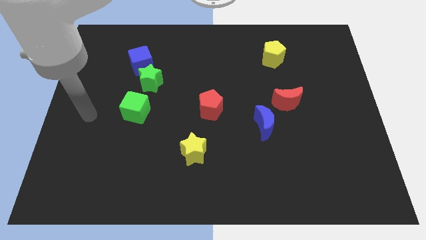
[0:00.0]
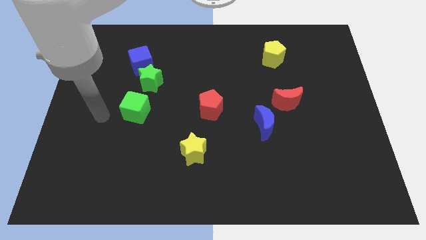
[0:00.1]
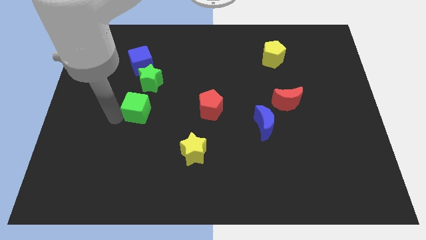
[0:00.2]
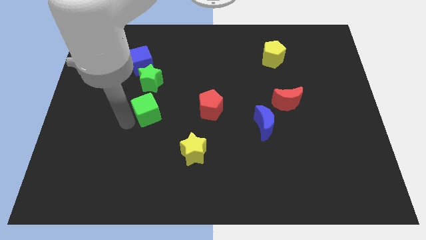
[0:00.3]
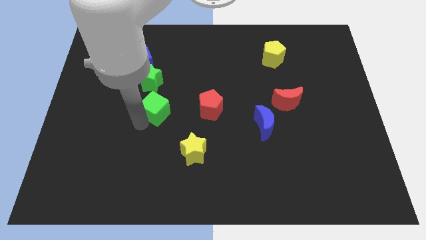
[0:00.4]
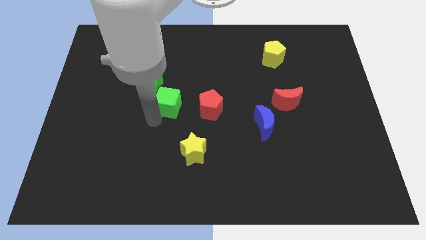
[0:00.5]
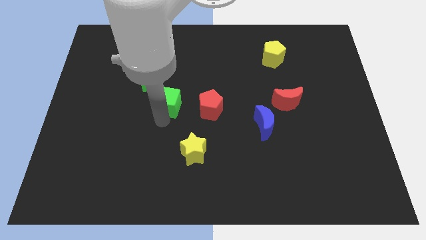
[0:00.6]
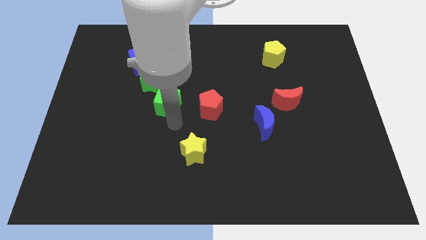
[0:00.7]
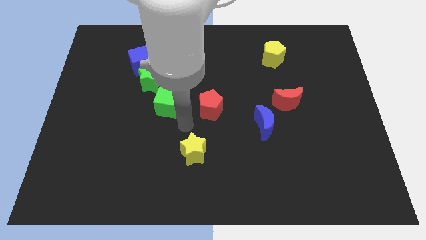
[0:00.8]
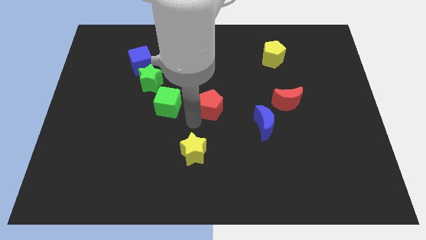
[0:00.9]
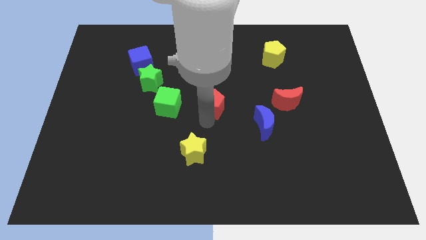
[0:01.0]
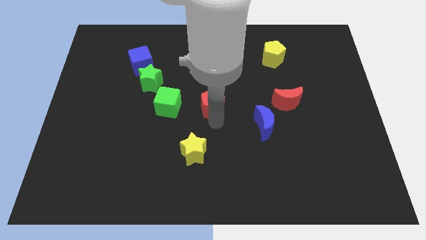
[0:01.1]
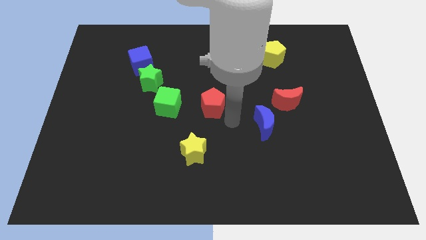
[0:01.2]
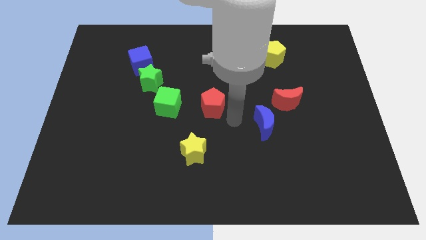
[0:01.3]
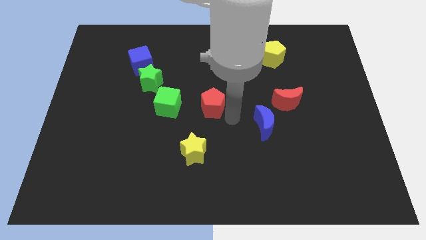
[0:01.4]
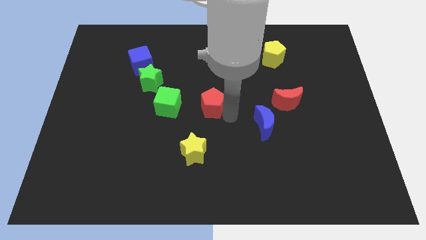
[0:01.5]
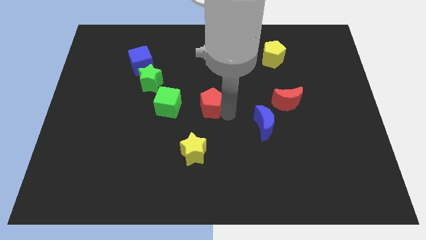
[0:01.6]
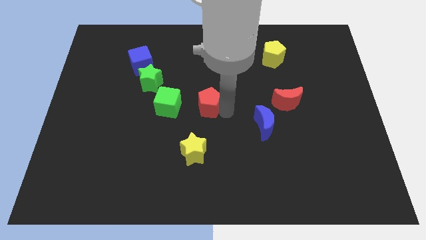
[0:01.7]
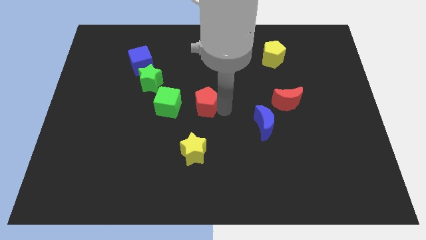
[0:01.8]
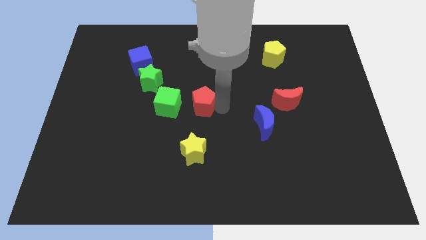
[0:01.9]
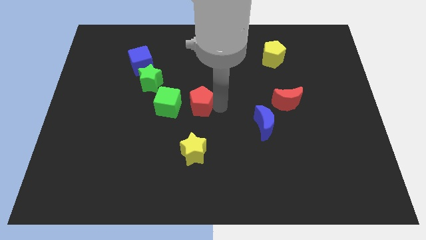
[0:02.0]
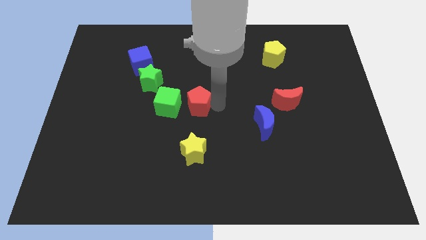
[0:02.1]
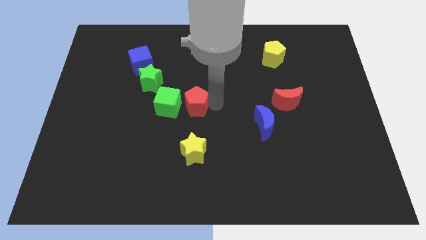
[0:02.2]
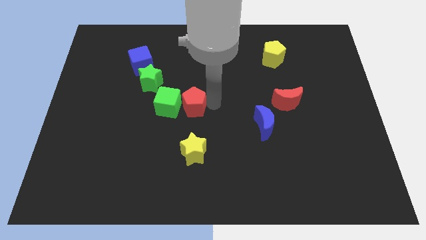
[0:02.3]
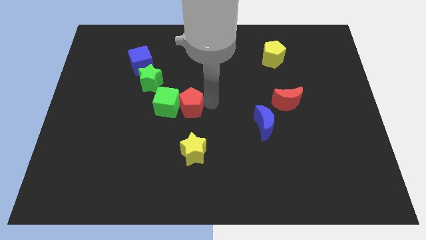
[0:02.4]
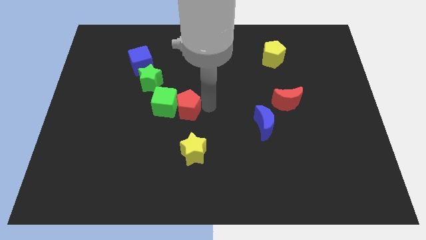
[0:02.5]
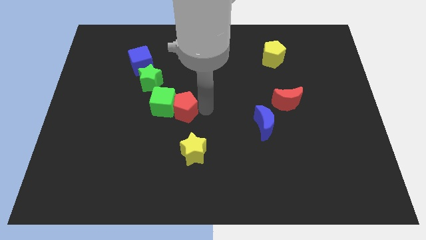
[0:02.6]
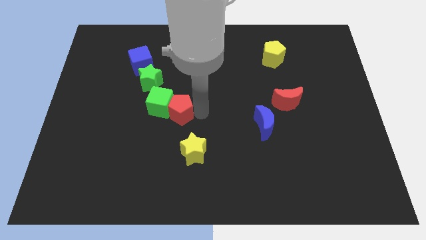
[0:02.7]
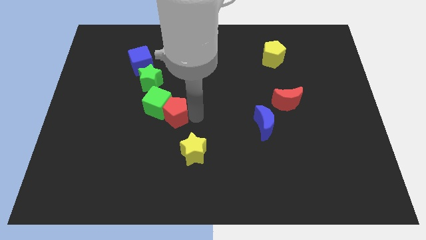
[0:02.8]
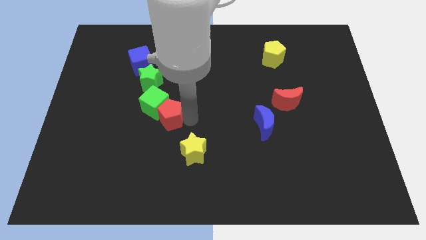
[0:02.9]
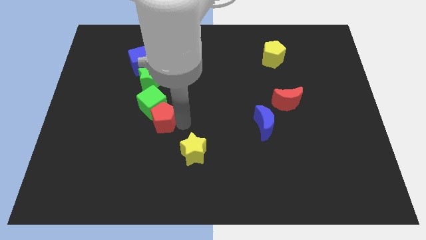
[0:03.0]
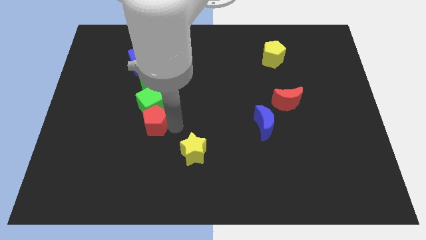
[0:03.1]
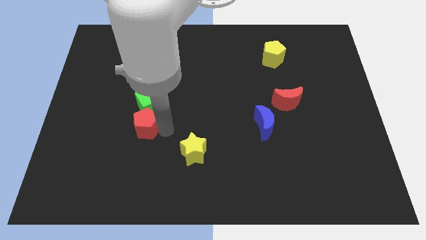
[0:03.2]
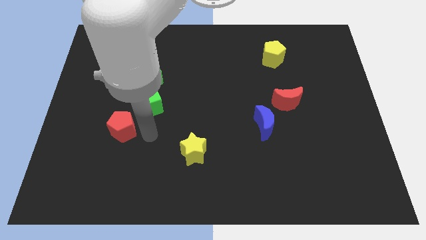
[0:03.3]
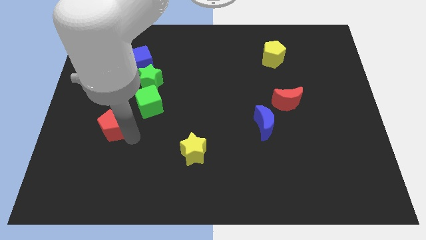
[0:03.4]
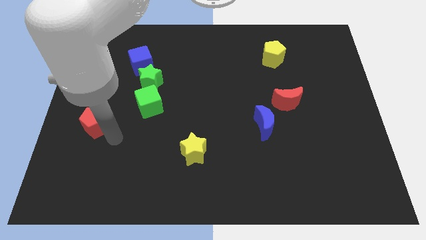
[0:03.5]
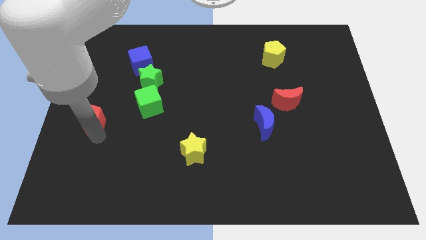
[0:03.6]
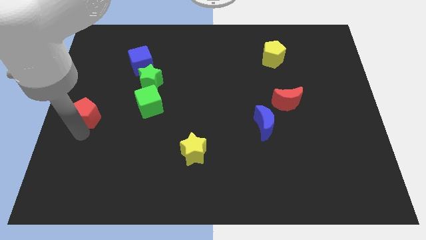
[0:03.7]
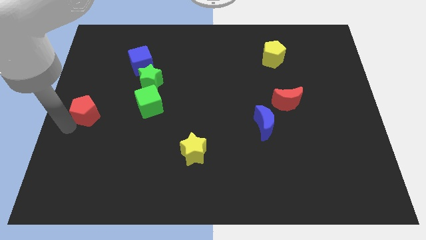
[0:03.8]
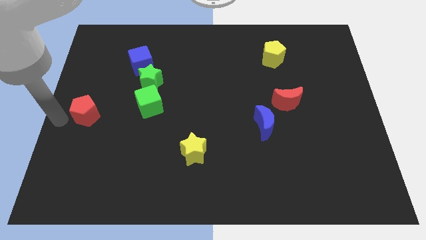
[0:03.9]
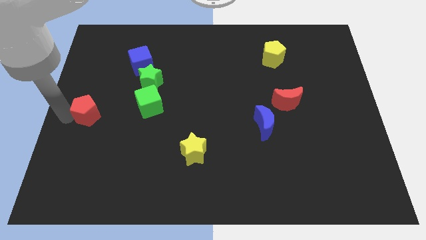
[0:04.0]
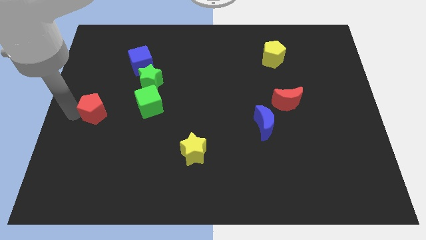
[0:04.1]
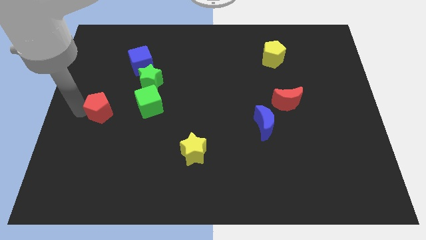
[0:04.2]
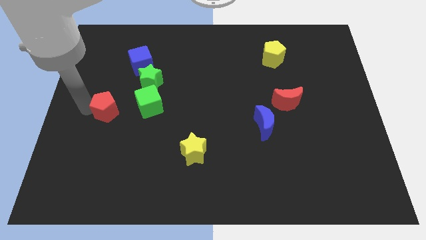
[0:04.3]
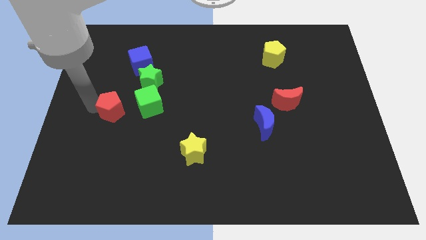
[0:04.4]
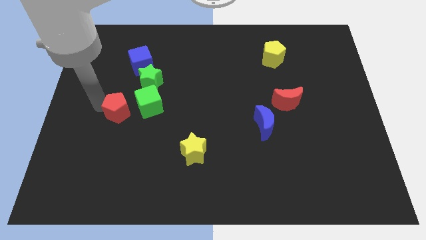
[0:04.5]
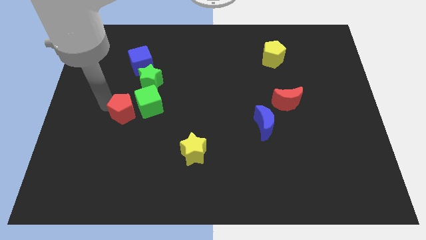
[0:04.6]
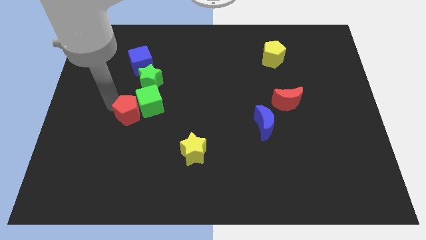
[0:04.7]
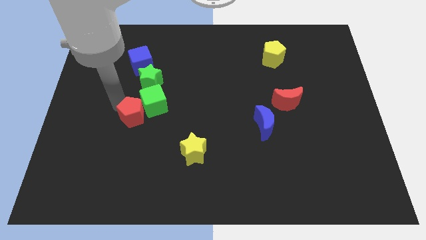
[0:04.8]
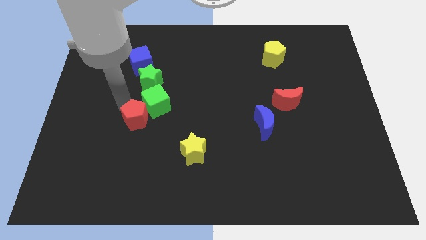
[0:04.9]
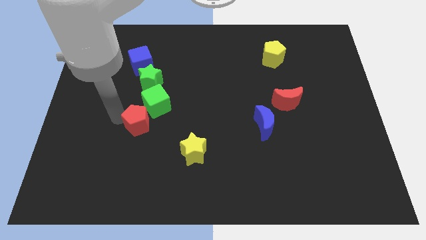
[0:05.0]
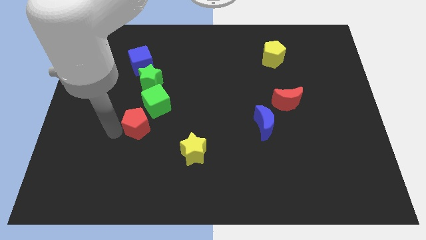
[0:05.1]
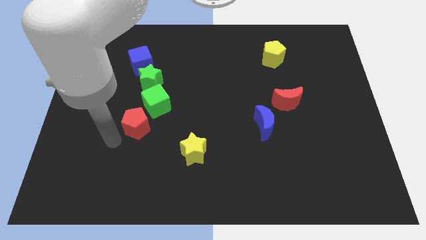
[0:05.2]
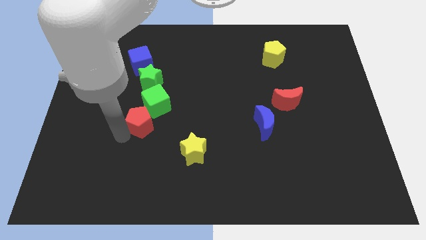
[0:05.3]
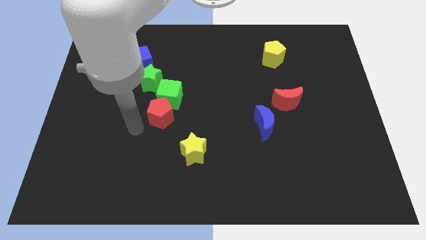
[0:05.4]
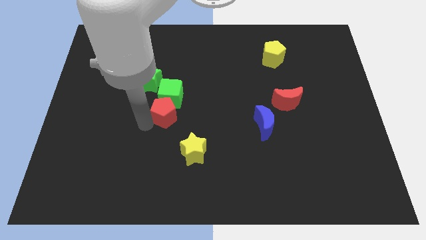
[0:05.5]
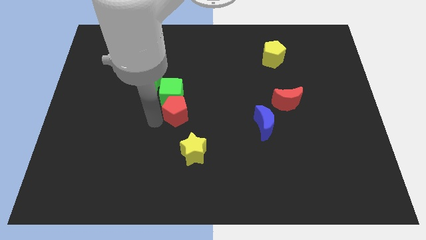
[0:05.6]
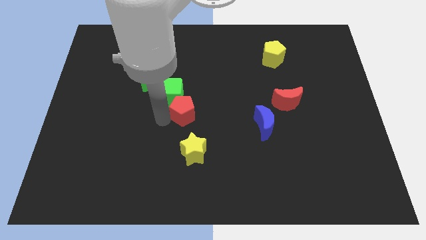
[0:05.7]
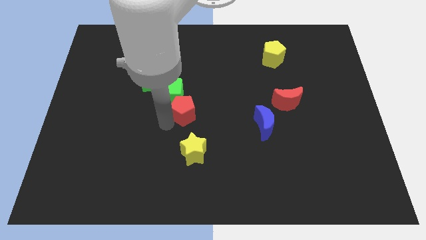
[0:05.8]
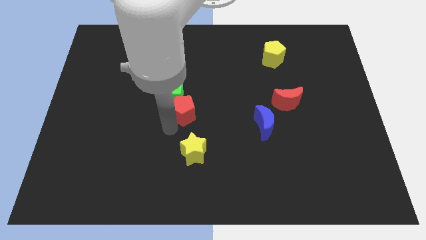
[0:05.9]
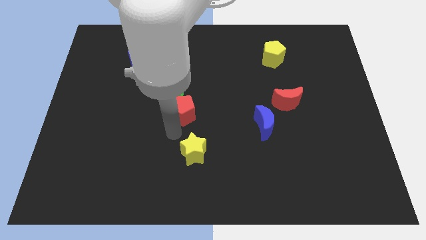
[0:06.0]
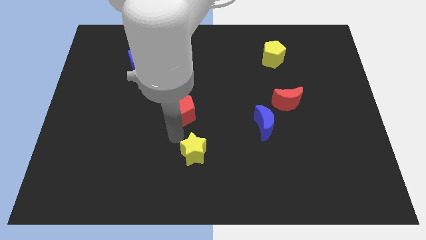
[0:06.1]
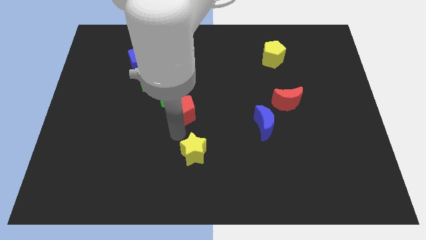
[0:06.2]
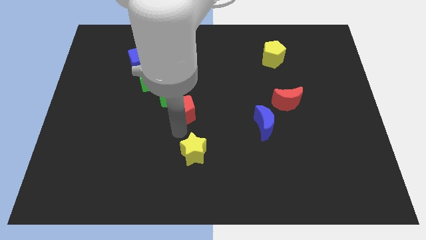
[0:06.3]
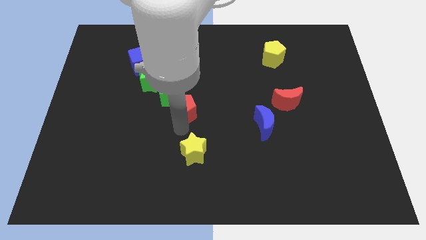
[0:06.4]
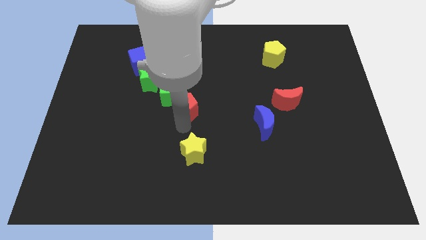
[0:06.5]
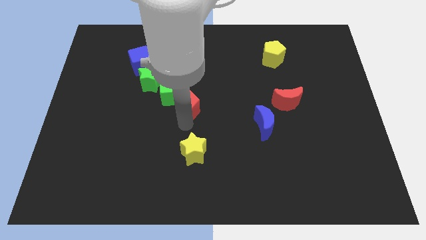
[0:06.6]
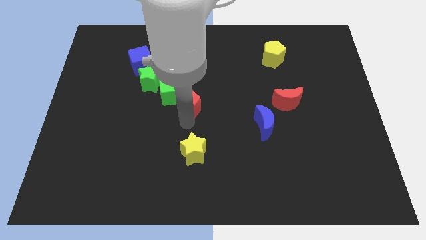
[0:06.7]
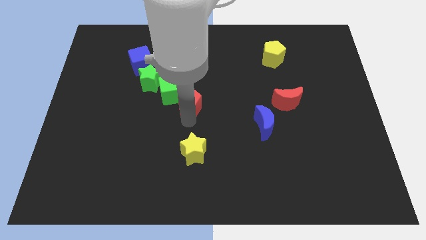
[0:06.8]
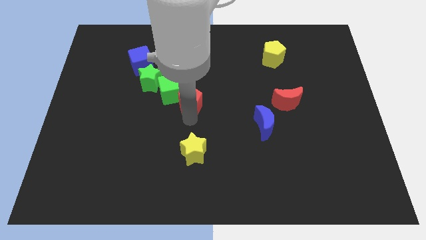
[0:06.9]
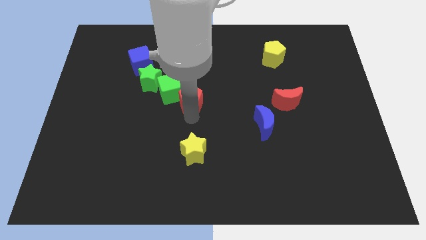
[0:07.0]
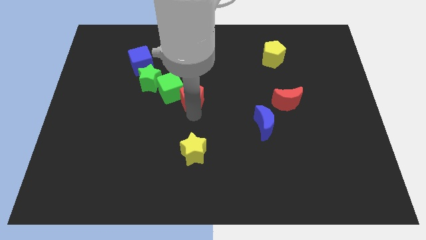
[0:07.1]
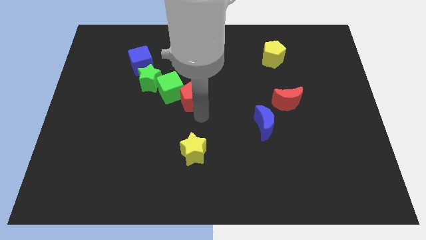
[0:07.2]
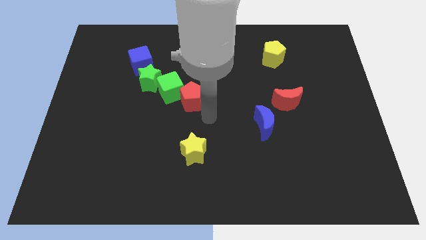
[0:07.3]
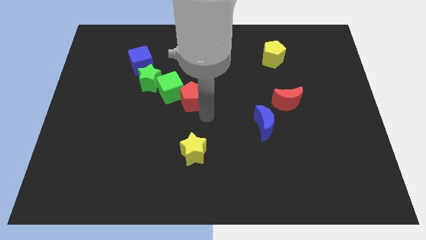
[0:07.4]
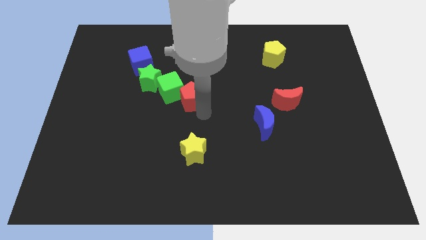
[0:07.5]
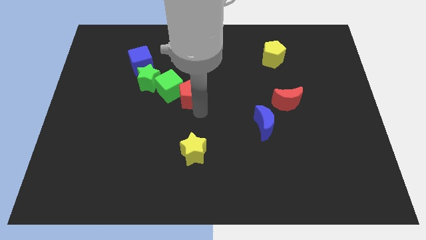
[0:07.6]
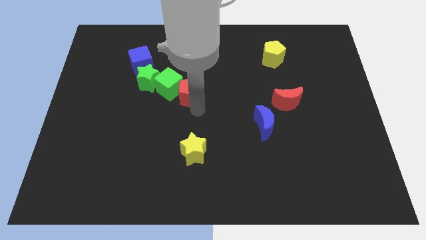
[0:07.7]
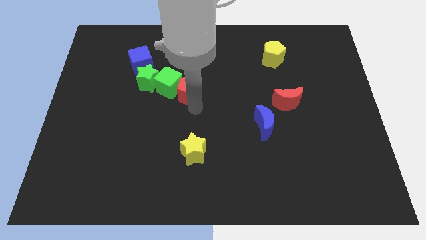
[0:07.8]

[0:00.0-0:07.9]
move the red pentagon a bit upwards and then left
